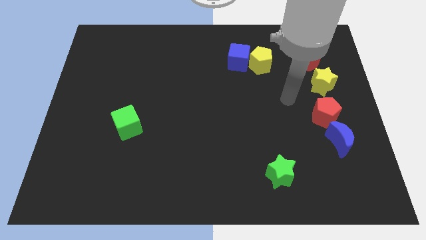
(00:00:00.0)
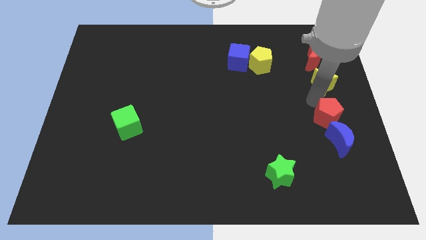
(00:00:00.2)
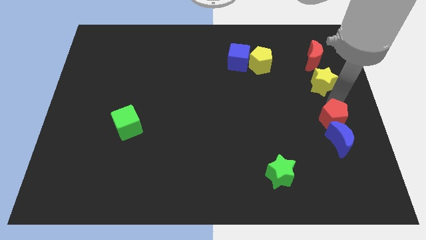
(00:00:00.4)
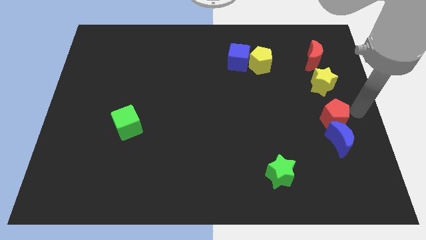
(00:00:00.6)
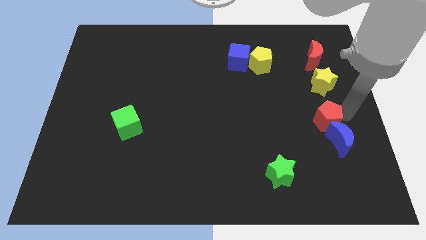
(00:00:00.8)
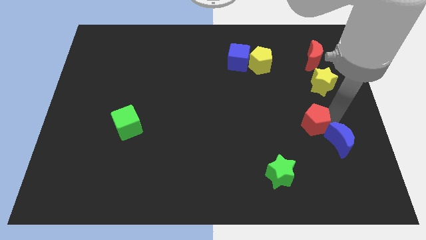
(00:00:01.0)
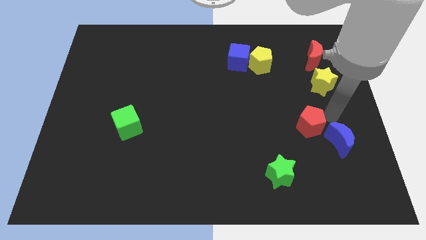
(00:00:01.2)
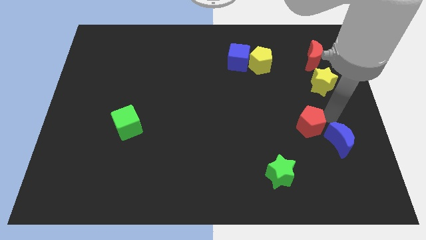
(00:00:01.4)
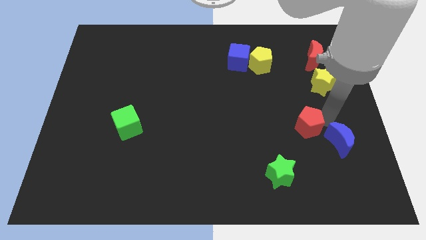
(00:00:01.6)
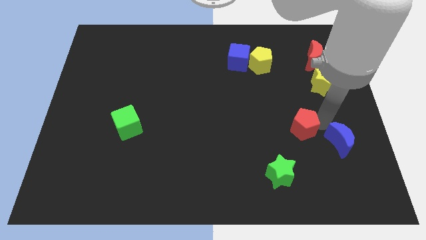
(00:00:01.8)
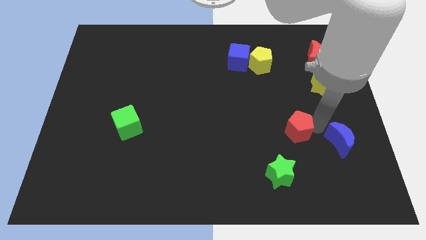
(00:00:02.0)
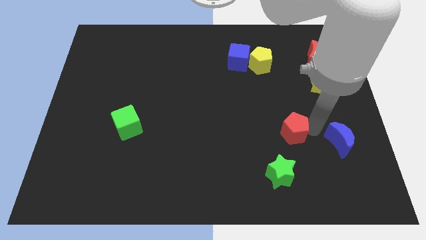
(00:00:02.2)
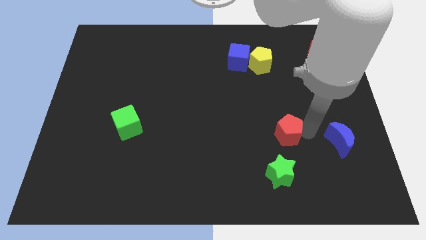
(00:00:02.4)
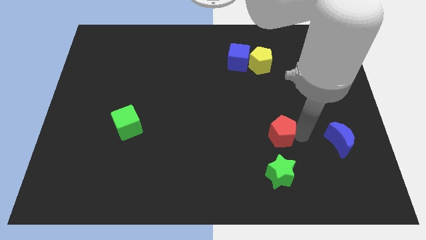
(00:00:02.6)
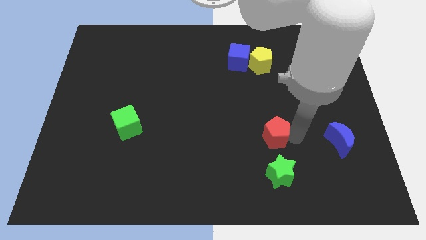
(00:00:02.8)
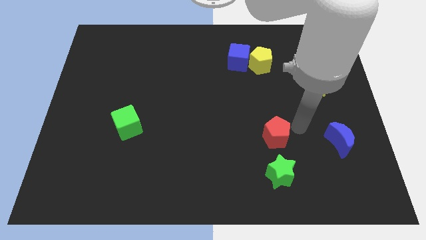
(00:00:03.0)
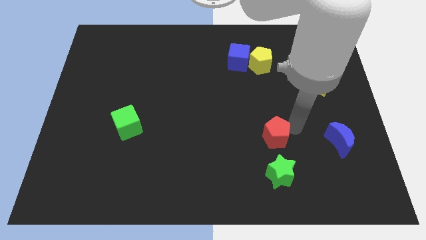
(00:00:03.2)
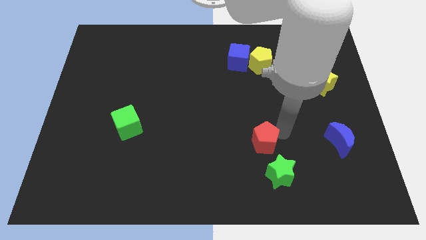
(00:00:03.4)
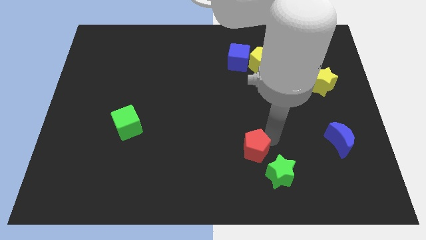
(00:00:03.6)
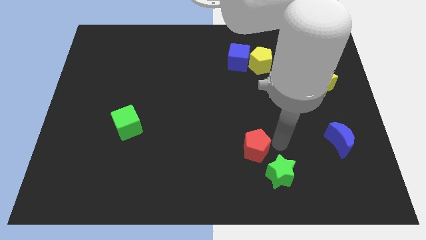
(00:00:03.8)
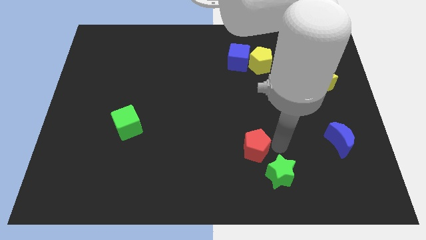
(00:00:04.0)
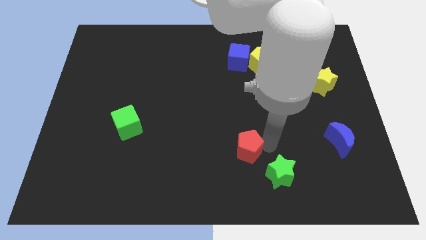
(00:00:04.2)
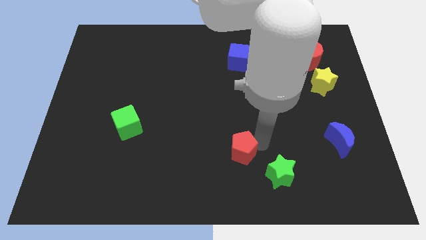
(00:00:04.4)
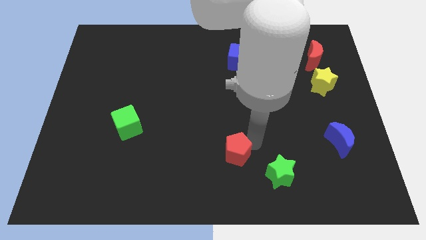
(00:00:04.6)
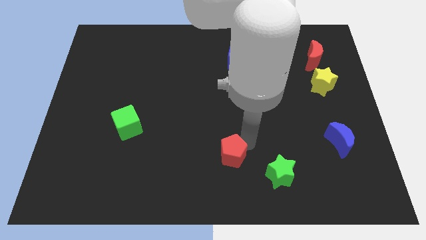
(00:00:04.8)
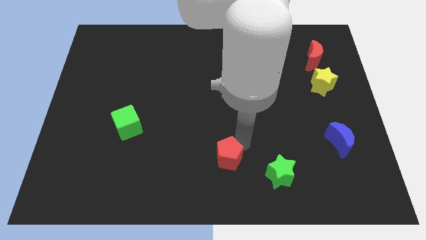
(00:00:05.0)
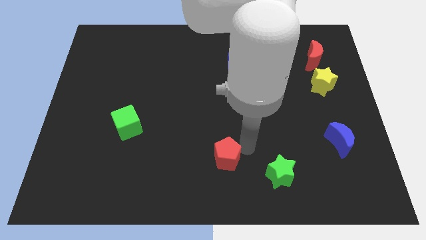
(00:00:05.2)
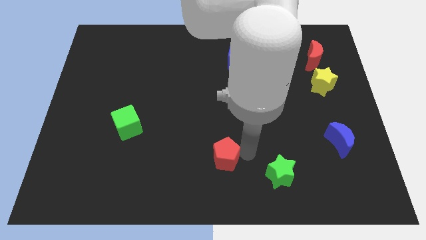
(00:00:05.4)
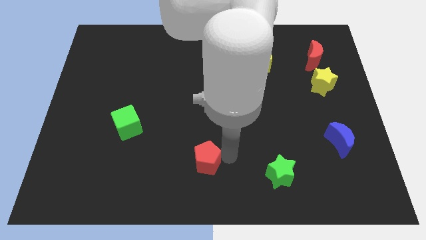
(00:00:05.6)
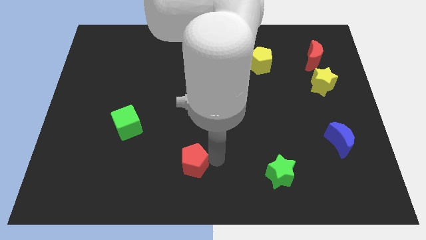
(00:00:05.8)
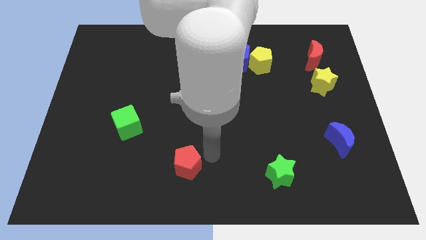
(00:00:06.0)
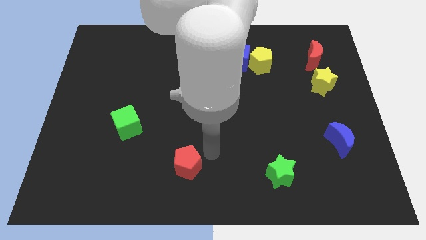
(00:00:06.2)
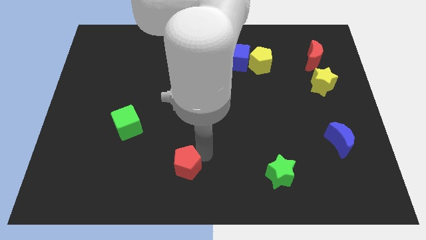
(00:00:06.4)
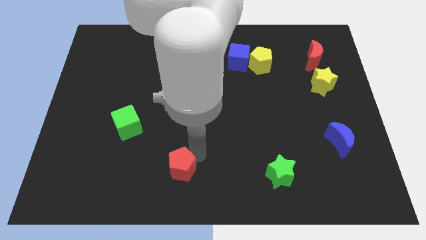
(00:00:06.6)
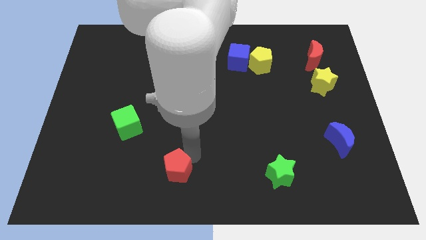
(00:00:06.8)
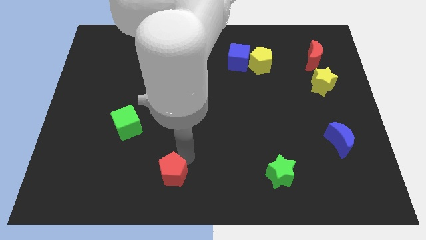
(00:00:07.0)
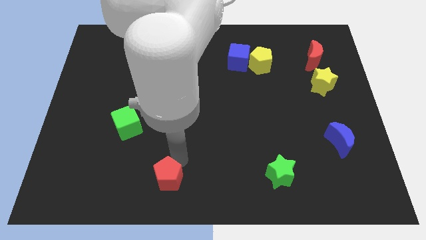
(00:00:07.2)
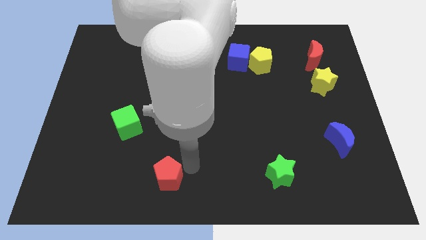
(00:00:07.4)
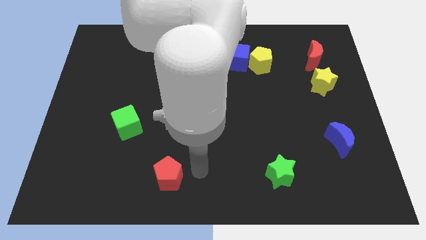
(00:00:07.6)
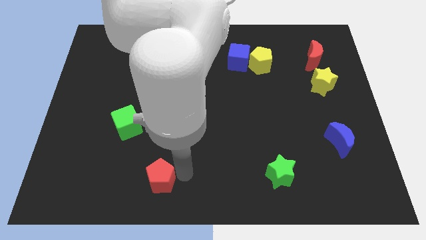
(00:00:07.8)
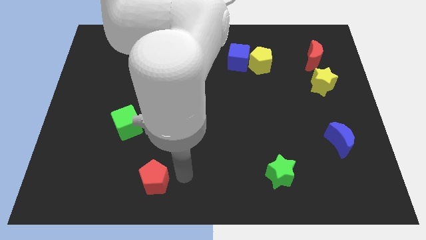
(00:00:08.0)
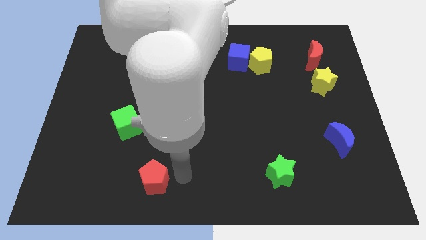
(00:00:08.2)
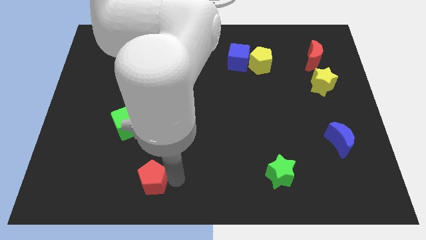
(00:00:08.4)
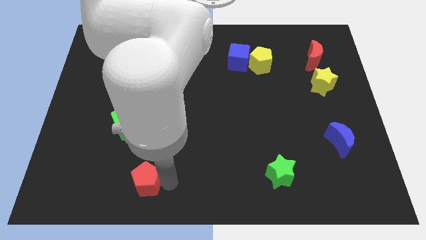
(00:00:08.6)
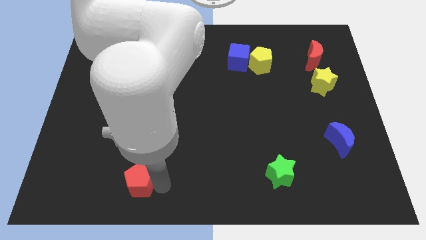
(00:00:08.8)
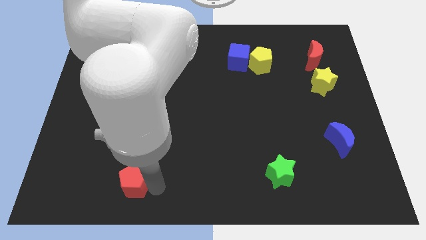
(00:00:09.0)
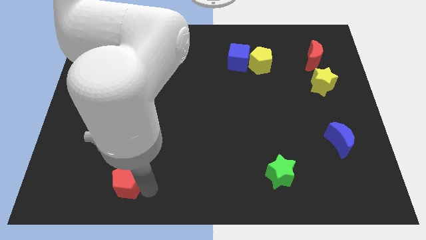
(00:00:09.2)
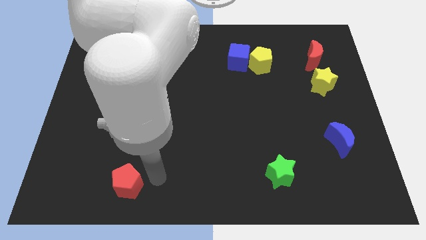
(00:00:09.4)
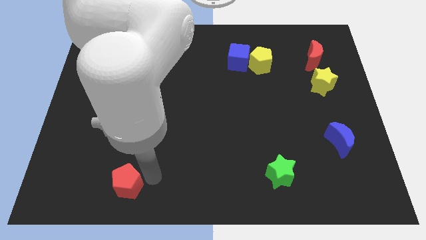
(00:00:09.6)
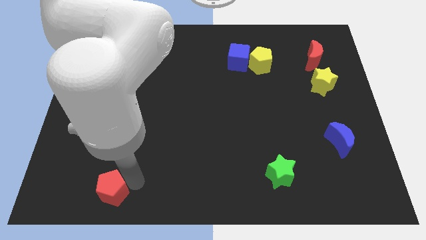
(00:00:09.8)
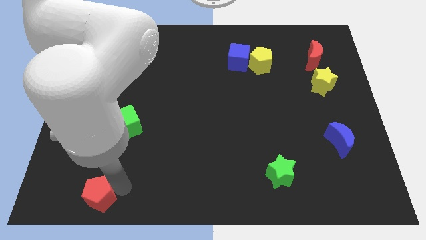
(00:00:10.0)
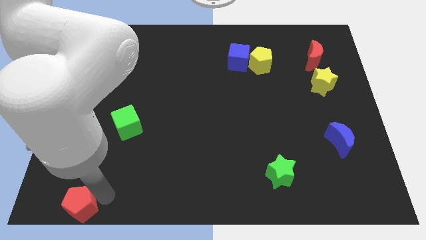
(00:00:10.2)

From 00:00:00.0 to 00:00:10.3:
push the red pentagon to the bottom left corner

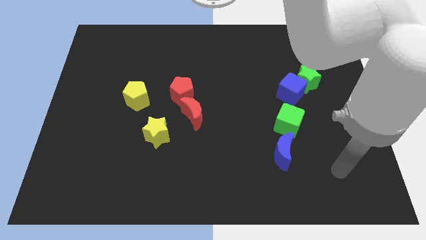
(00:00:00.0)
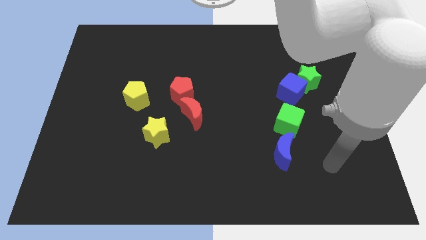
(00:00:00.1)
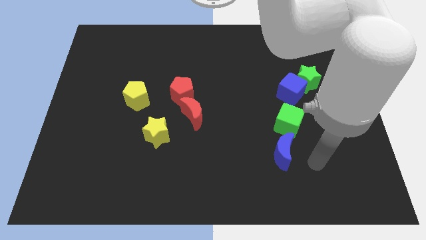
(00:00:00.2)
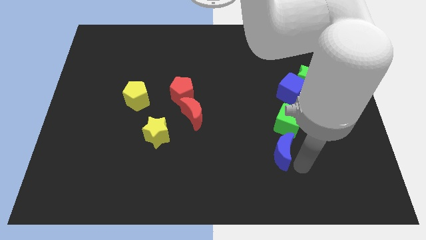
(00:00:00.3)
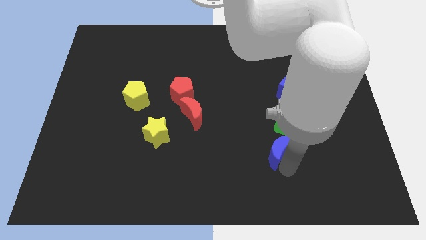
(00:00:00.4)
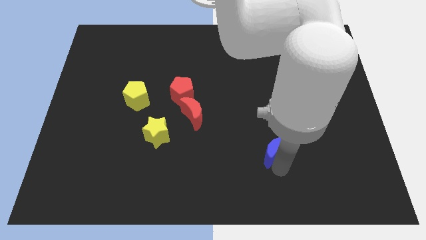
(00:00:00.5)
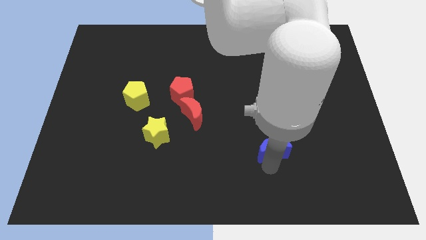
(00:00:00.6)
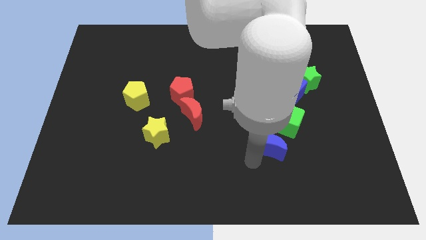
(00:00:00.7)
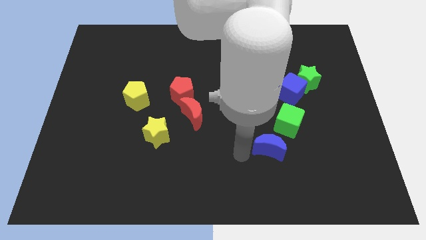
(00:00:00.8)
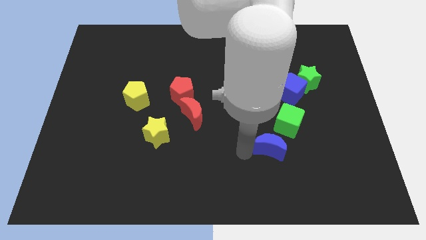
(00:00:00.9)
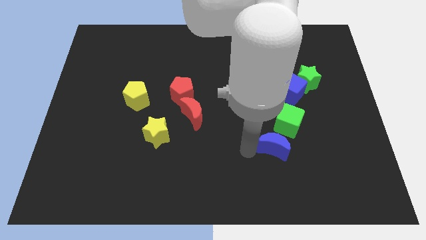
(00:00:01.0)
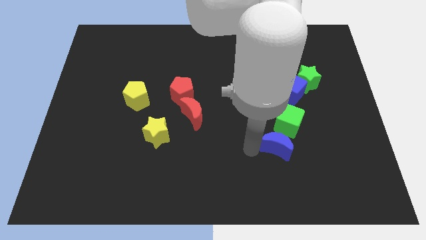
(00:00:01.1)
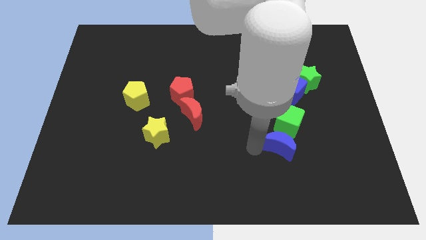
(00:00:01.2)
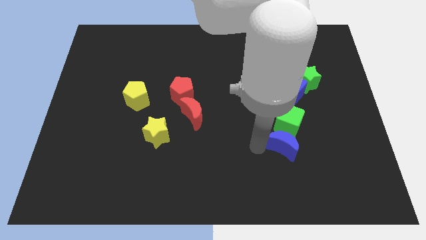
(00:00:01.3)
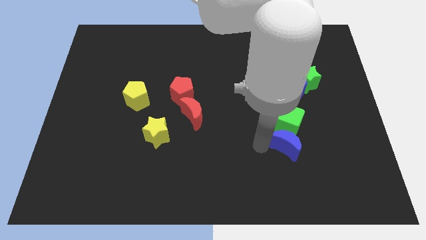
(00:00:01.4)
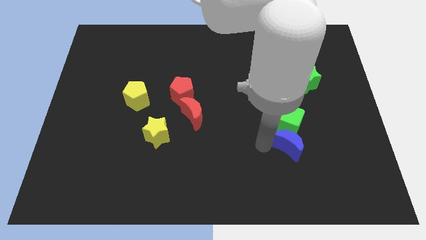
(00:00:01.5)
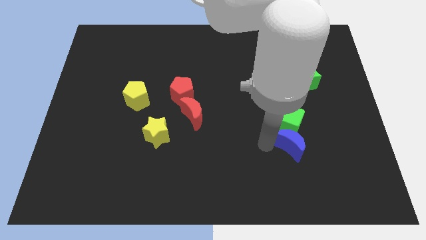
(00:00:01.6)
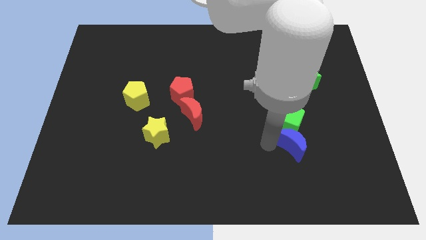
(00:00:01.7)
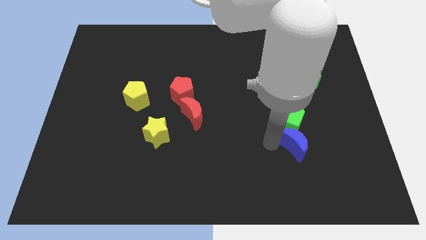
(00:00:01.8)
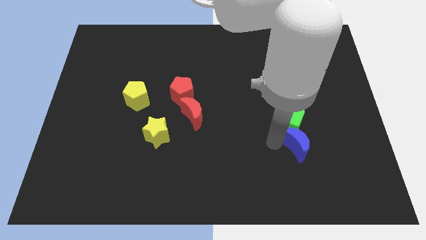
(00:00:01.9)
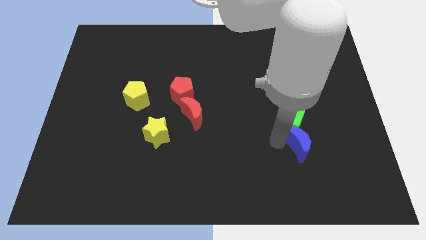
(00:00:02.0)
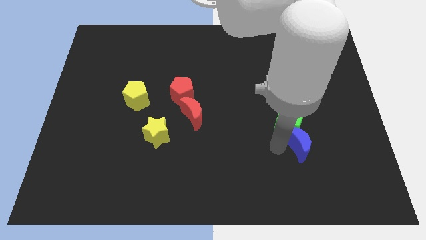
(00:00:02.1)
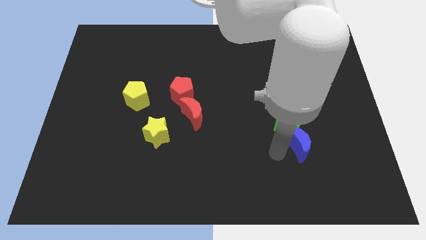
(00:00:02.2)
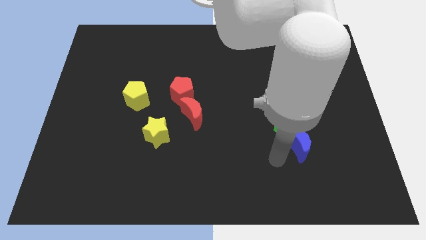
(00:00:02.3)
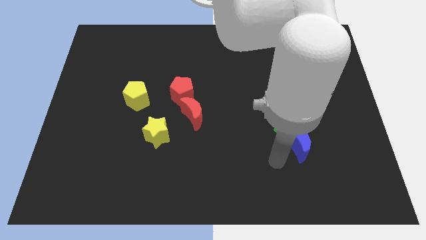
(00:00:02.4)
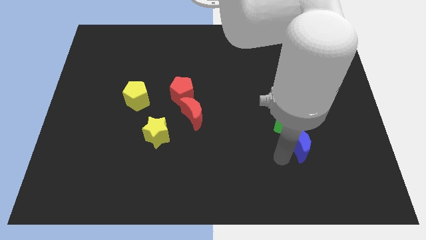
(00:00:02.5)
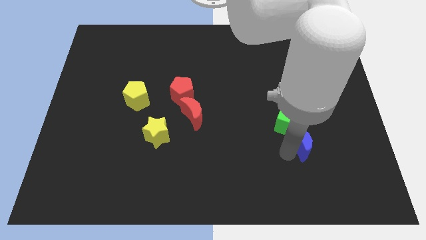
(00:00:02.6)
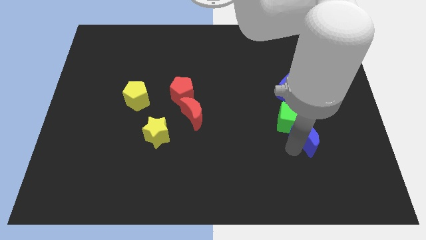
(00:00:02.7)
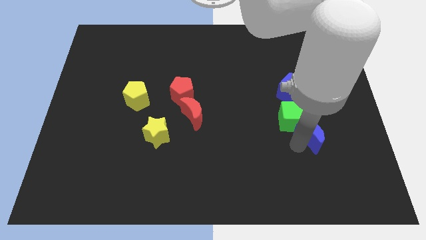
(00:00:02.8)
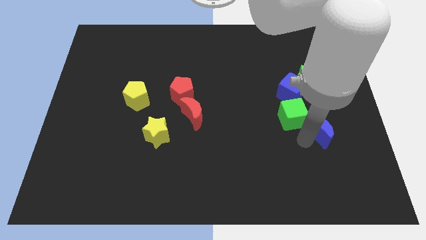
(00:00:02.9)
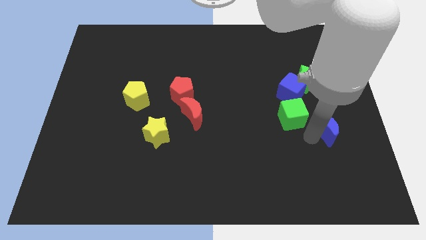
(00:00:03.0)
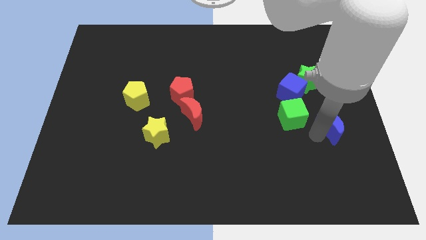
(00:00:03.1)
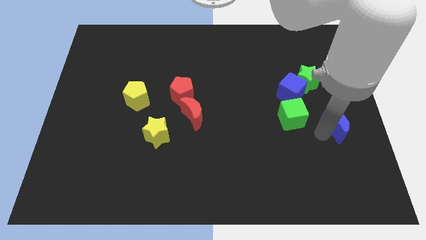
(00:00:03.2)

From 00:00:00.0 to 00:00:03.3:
move the blue moon to the right side of the board
